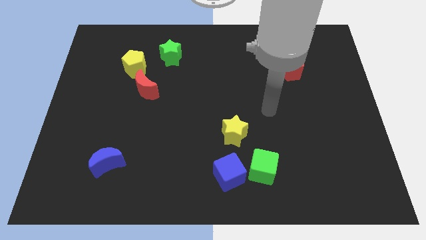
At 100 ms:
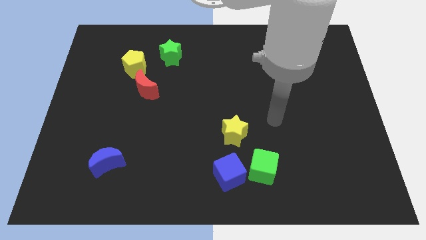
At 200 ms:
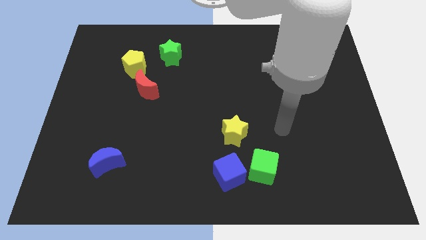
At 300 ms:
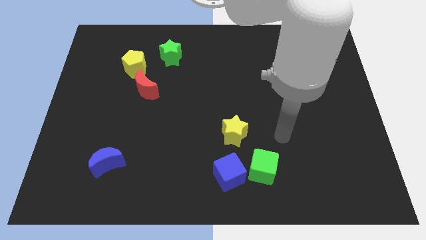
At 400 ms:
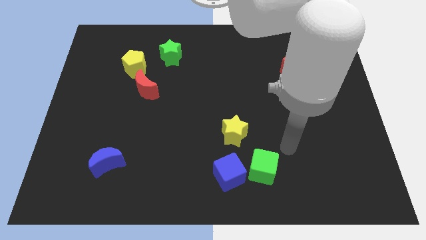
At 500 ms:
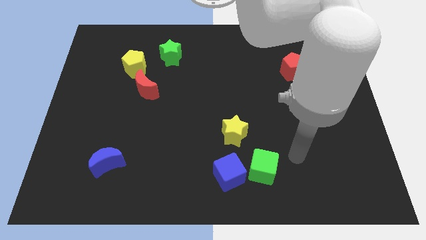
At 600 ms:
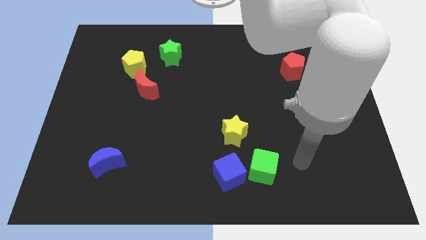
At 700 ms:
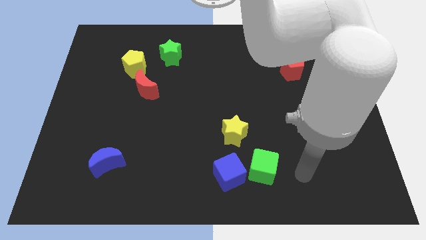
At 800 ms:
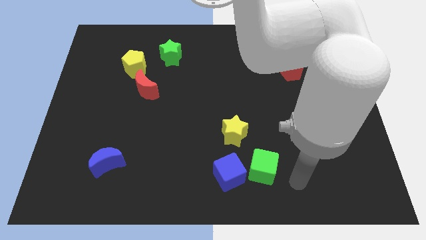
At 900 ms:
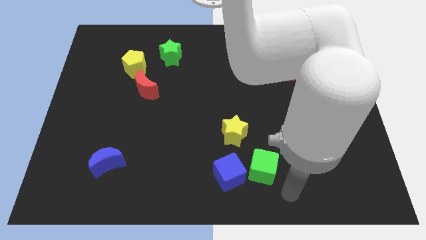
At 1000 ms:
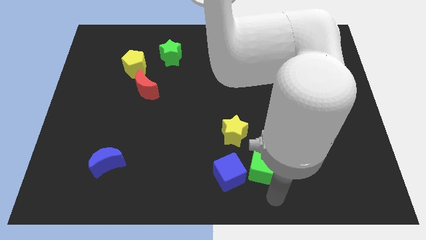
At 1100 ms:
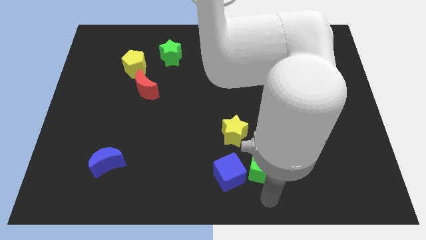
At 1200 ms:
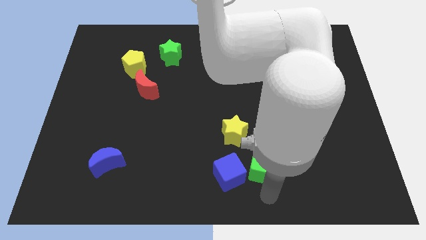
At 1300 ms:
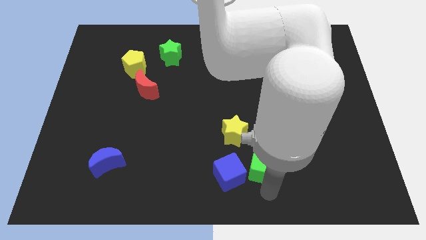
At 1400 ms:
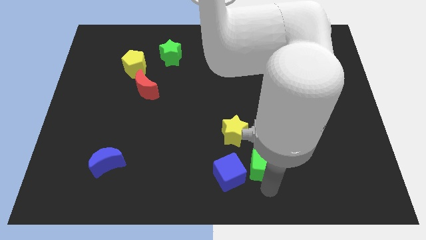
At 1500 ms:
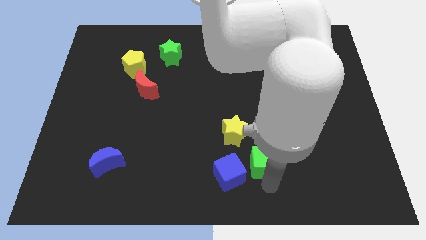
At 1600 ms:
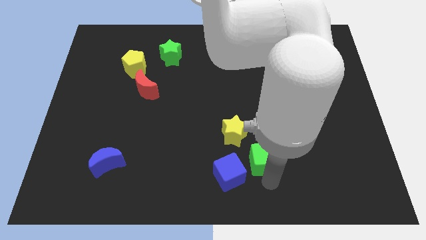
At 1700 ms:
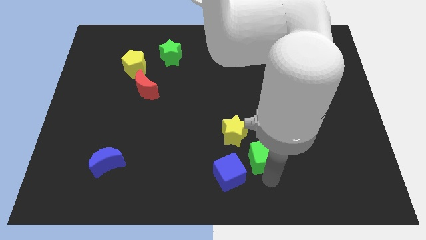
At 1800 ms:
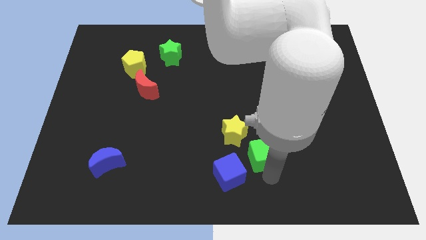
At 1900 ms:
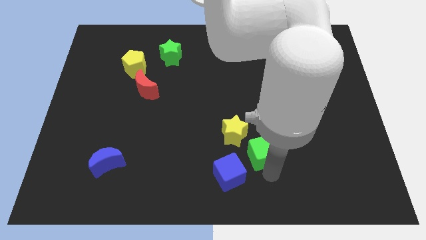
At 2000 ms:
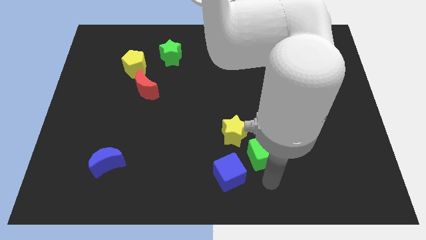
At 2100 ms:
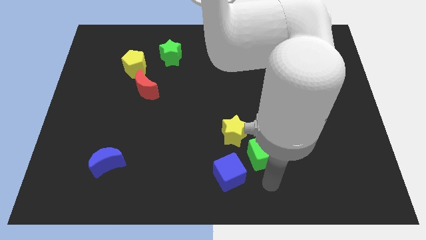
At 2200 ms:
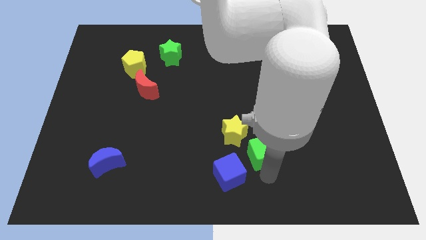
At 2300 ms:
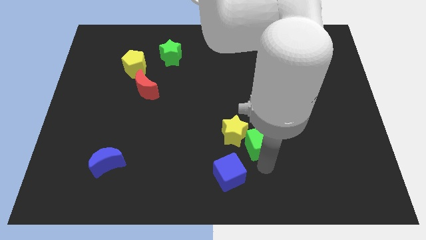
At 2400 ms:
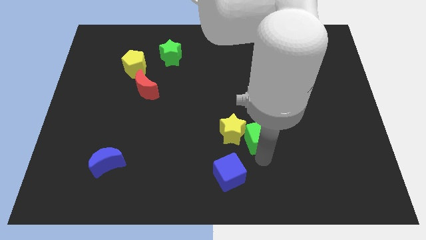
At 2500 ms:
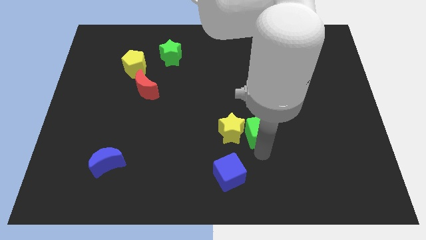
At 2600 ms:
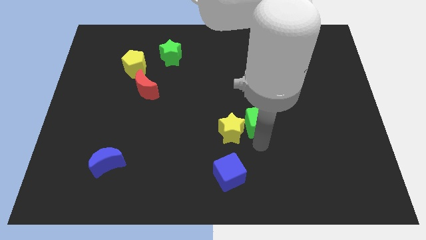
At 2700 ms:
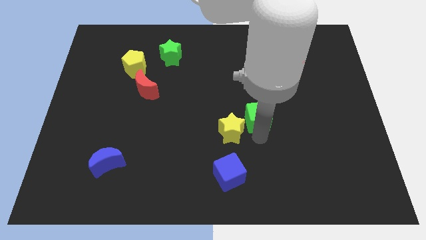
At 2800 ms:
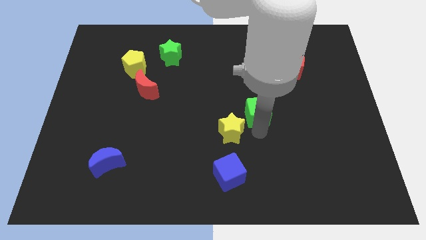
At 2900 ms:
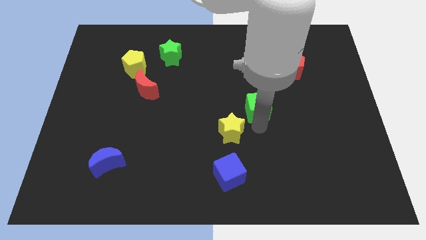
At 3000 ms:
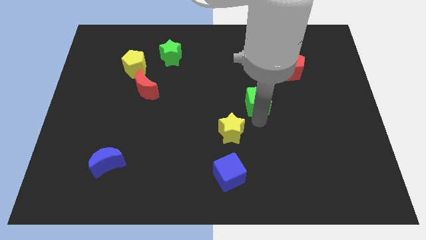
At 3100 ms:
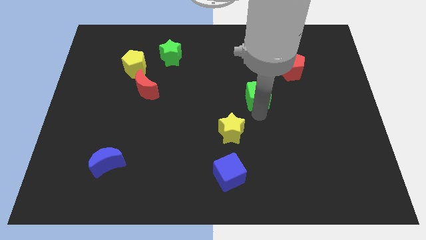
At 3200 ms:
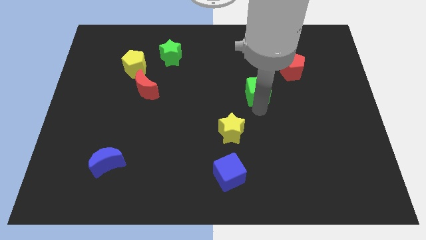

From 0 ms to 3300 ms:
move the green cube upwards

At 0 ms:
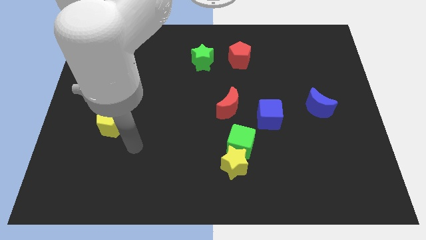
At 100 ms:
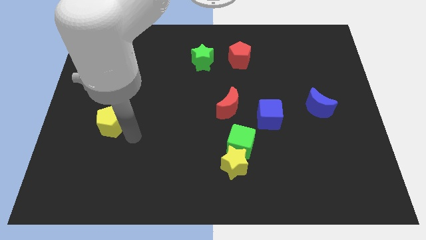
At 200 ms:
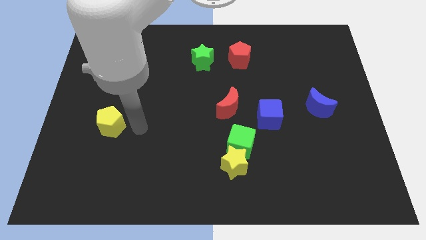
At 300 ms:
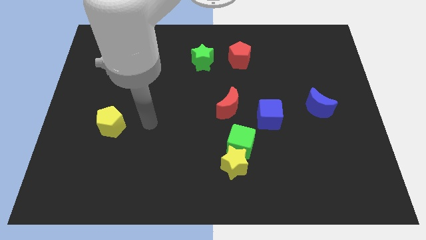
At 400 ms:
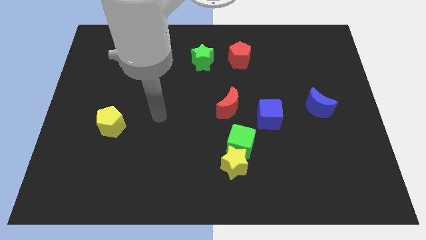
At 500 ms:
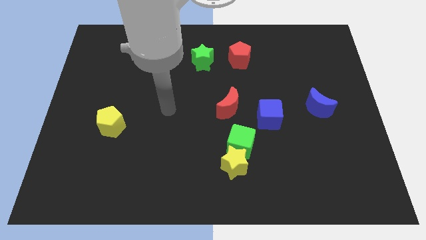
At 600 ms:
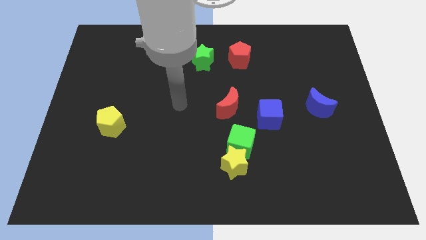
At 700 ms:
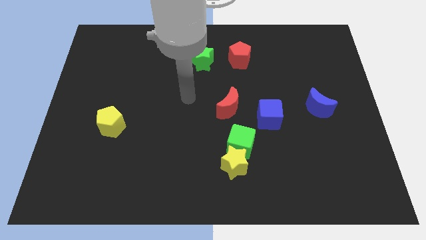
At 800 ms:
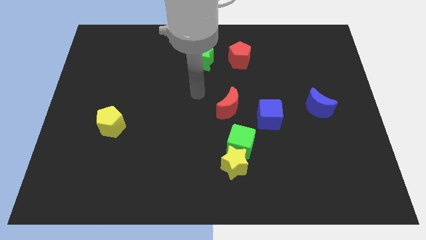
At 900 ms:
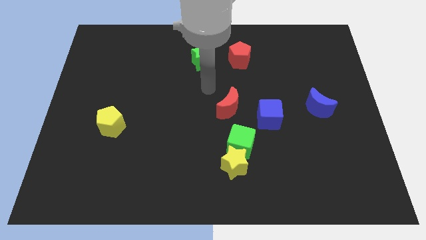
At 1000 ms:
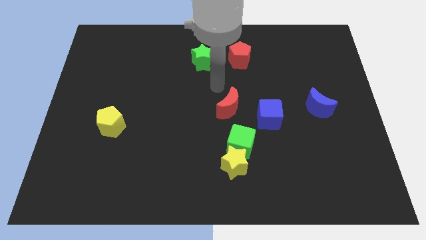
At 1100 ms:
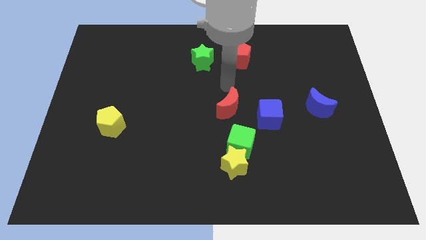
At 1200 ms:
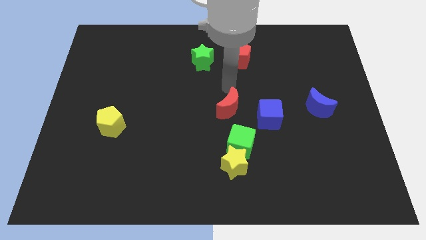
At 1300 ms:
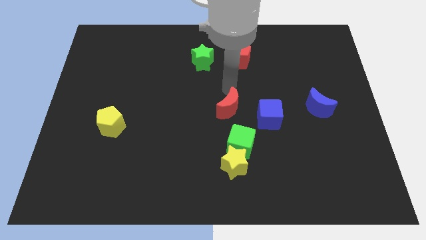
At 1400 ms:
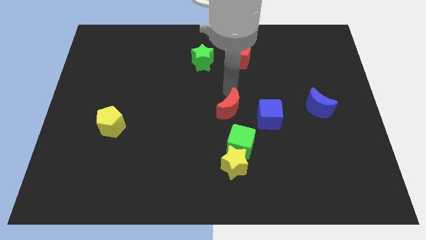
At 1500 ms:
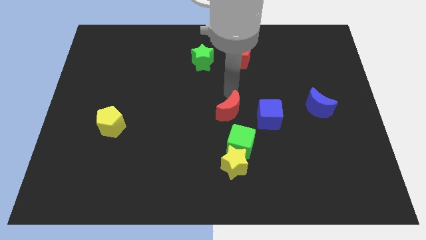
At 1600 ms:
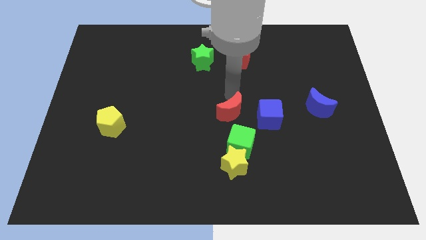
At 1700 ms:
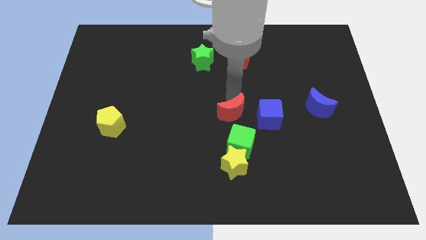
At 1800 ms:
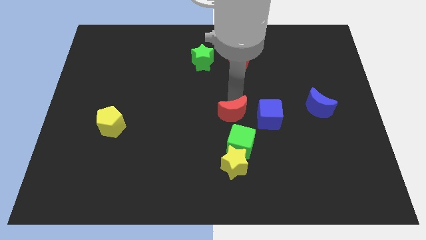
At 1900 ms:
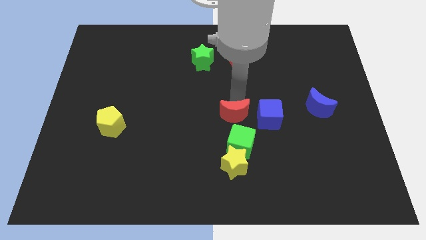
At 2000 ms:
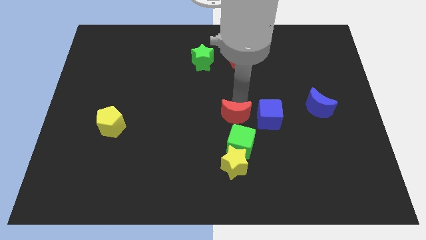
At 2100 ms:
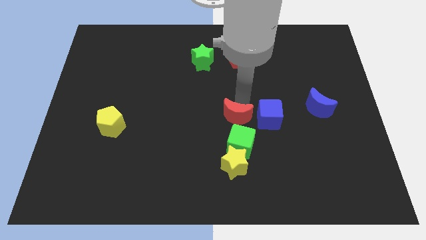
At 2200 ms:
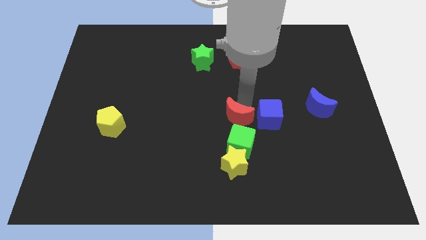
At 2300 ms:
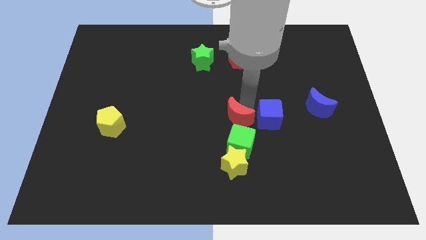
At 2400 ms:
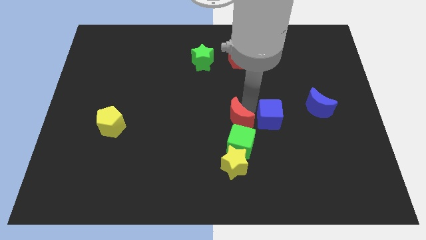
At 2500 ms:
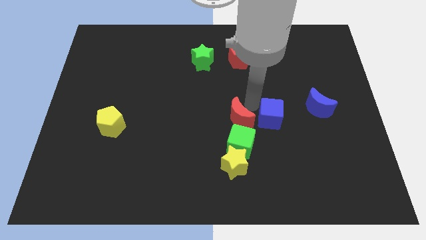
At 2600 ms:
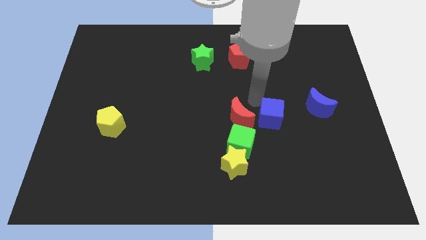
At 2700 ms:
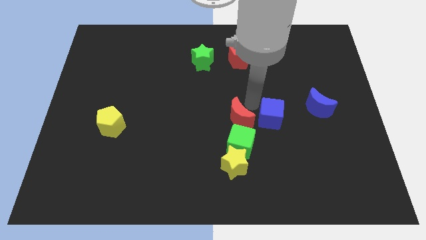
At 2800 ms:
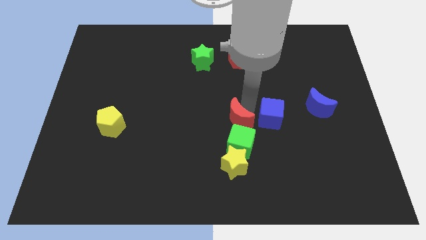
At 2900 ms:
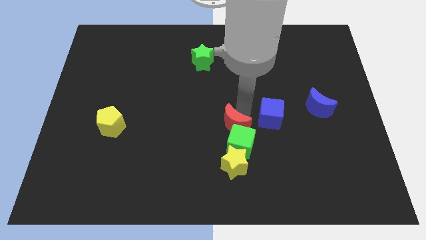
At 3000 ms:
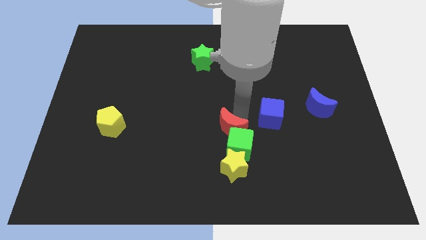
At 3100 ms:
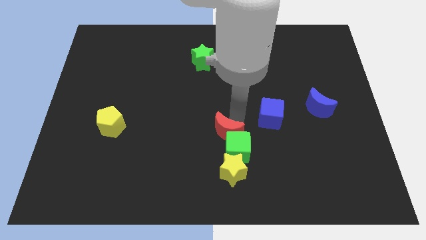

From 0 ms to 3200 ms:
move the red moon slightly downwards

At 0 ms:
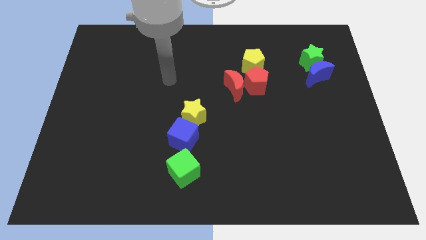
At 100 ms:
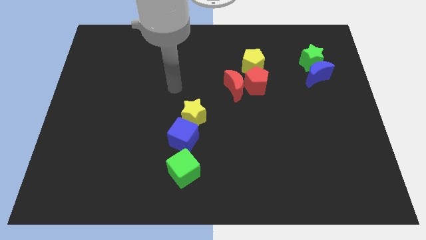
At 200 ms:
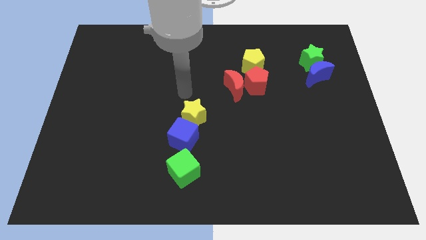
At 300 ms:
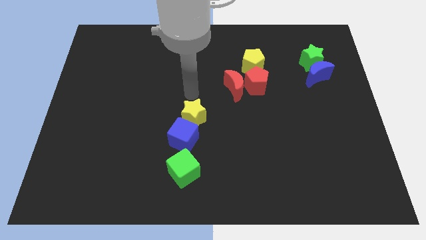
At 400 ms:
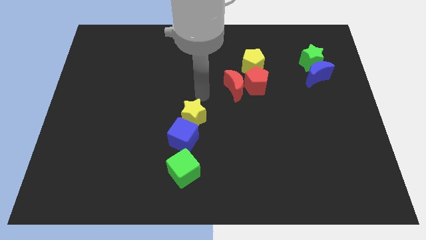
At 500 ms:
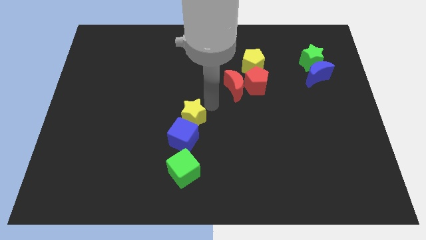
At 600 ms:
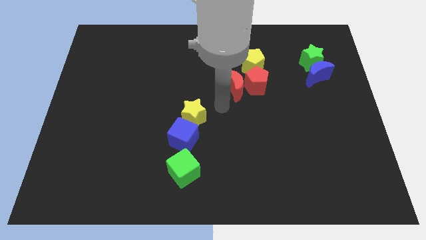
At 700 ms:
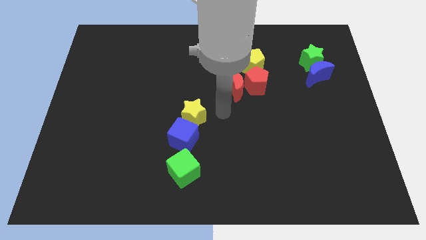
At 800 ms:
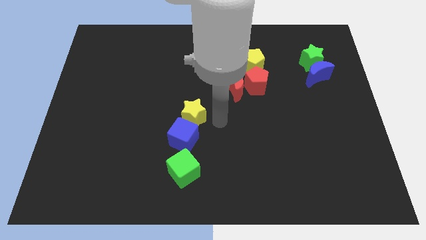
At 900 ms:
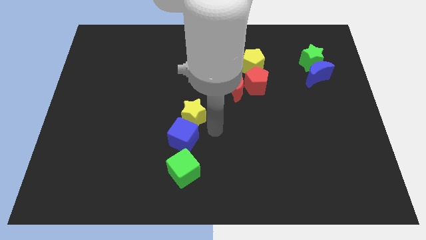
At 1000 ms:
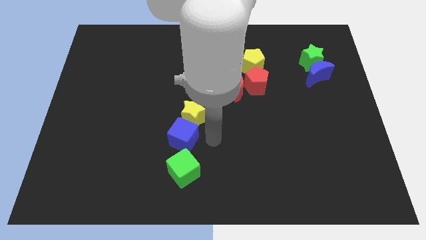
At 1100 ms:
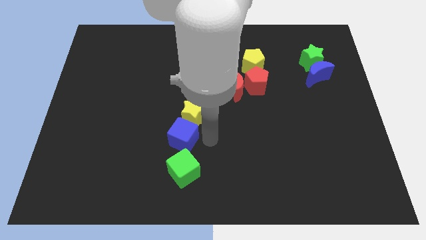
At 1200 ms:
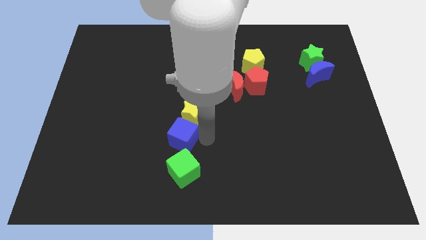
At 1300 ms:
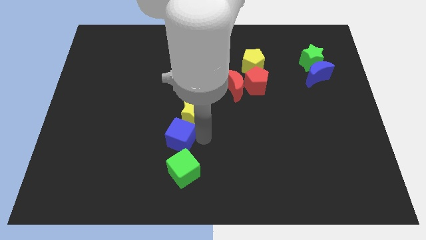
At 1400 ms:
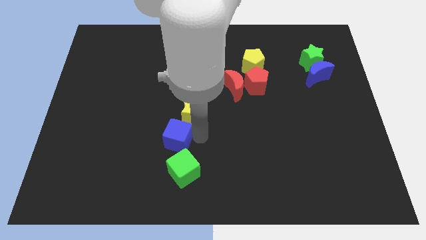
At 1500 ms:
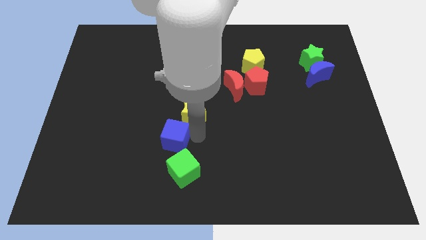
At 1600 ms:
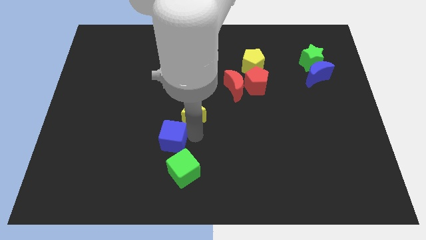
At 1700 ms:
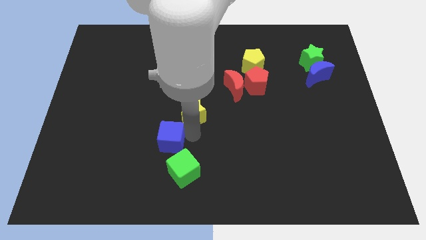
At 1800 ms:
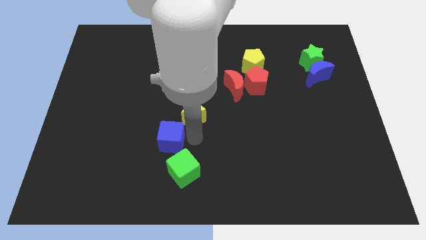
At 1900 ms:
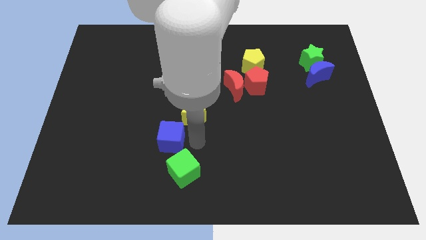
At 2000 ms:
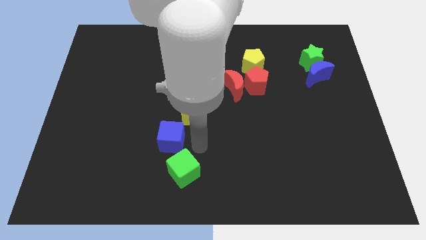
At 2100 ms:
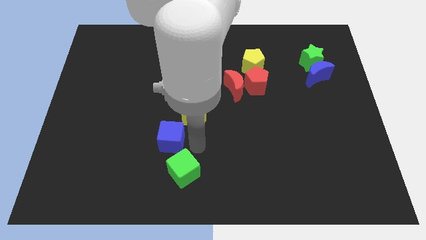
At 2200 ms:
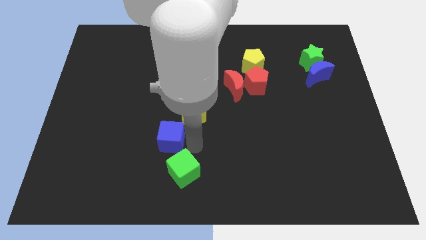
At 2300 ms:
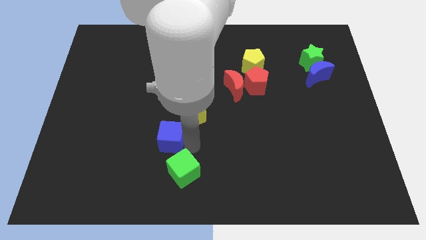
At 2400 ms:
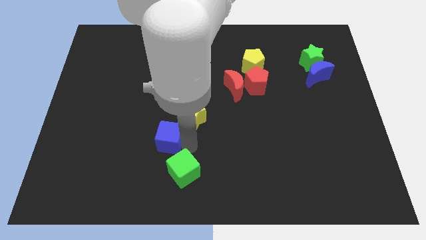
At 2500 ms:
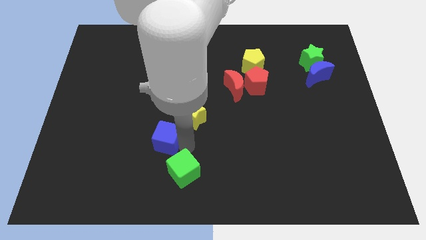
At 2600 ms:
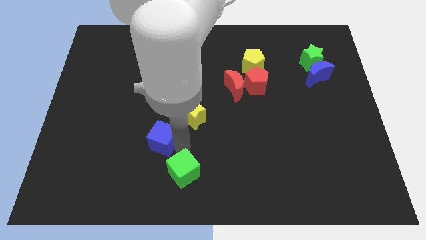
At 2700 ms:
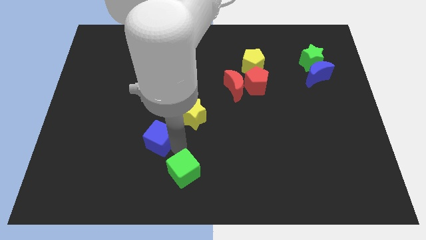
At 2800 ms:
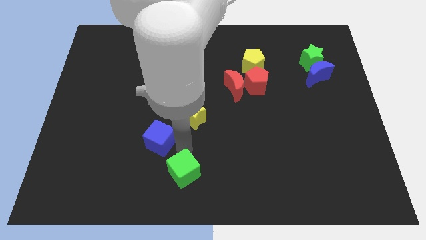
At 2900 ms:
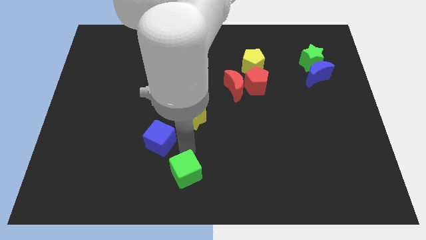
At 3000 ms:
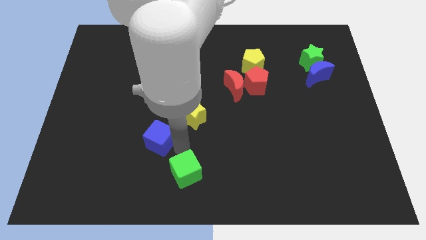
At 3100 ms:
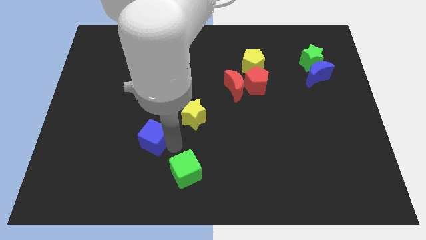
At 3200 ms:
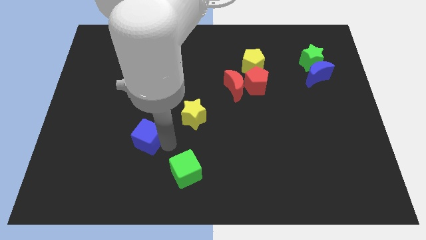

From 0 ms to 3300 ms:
slightly push the blue cube to the left
